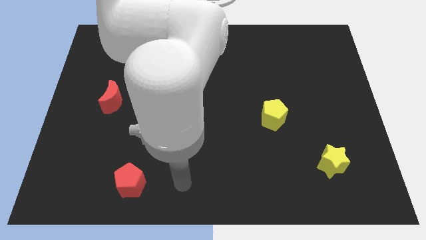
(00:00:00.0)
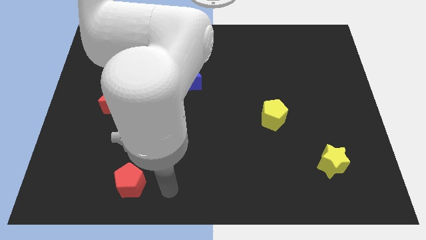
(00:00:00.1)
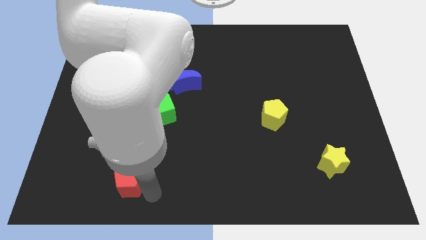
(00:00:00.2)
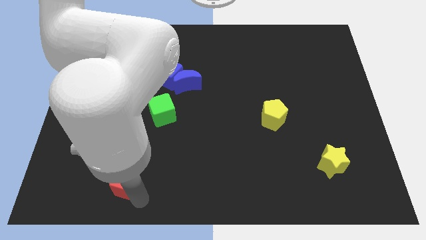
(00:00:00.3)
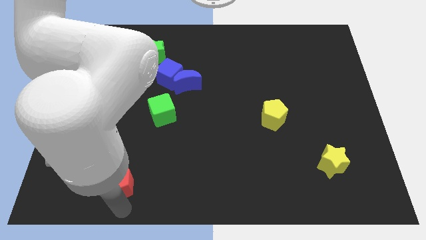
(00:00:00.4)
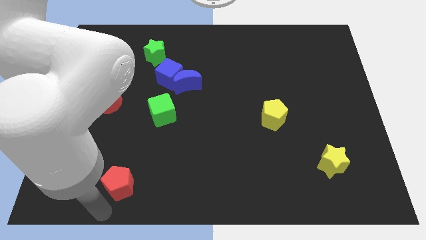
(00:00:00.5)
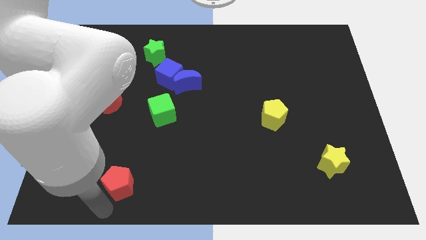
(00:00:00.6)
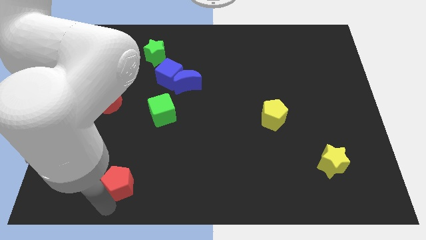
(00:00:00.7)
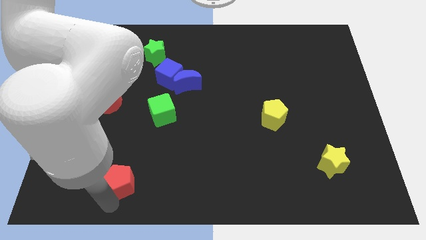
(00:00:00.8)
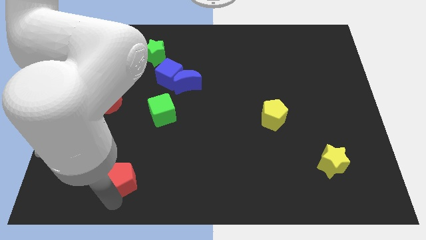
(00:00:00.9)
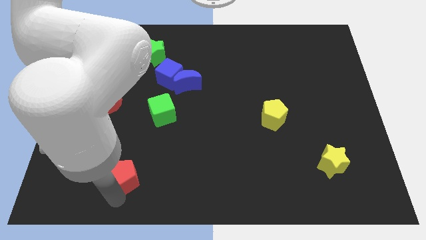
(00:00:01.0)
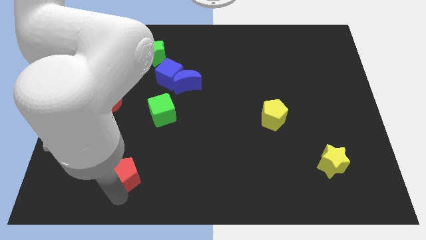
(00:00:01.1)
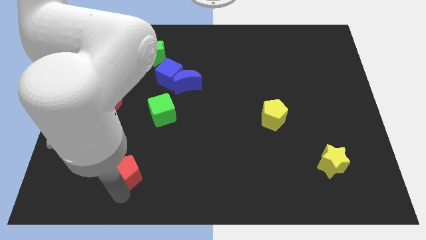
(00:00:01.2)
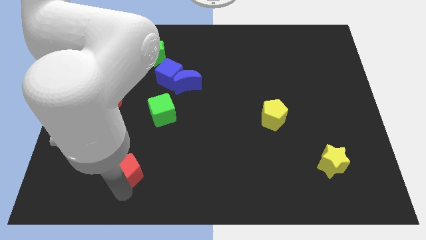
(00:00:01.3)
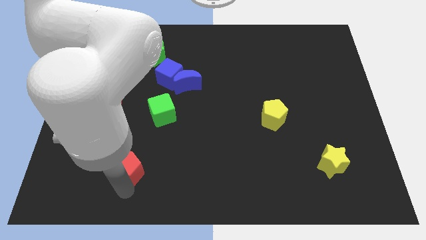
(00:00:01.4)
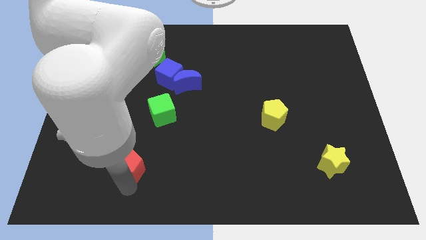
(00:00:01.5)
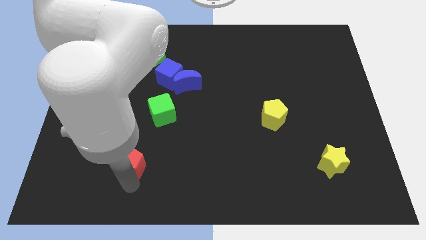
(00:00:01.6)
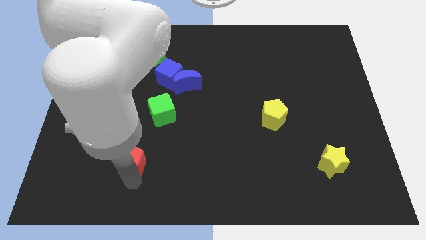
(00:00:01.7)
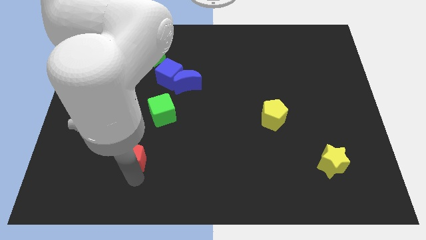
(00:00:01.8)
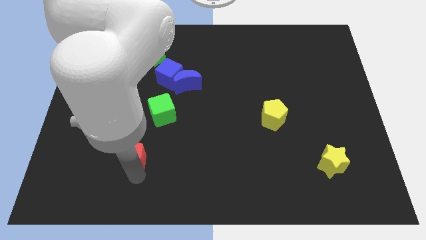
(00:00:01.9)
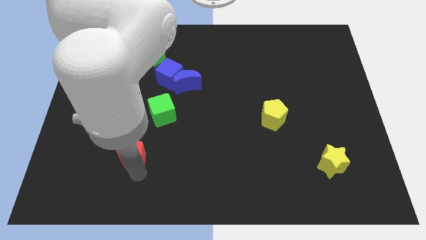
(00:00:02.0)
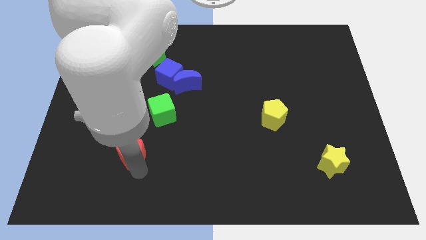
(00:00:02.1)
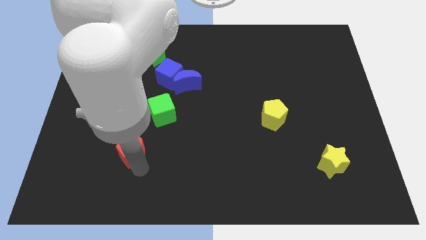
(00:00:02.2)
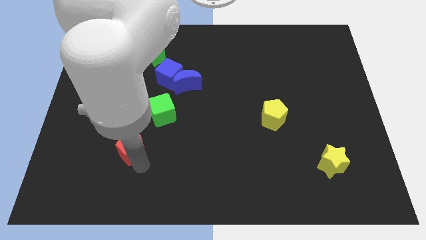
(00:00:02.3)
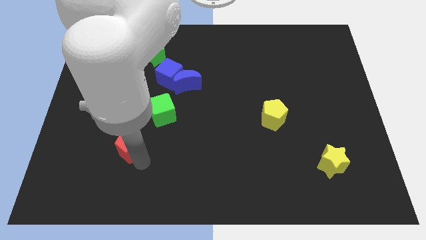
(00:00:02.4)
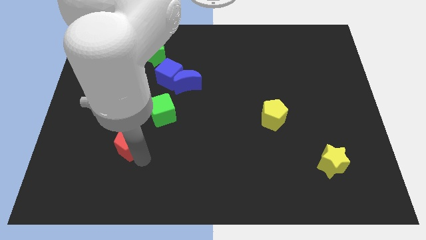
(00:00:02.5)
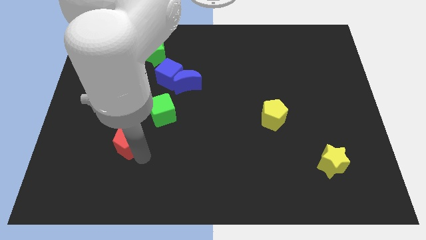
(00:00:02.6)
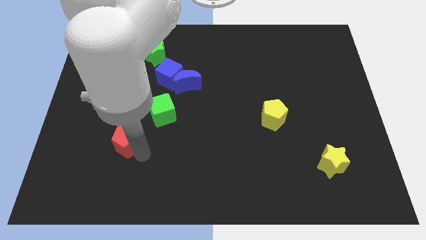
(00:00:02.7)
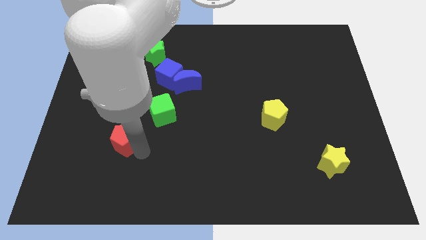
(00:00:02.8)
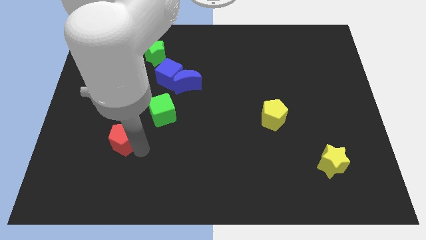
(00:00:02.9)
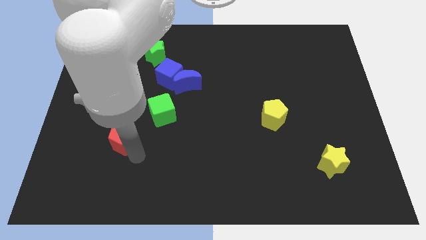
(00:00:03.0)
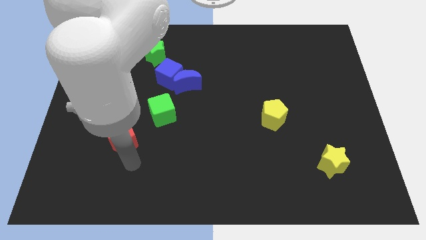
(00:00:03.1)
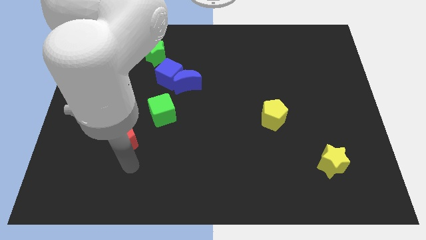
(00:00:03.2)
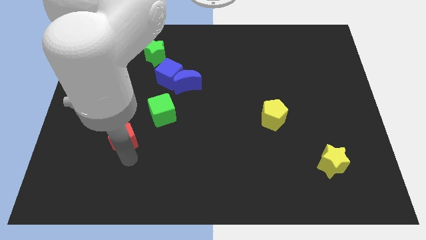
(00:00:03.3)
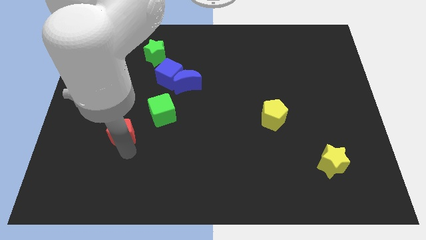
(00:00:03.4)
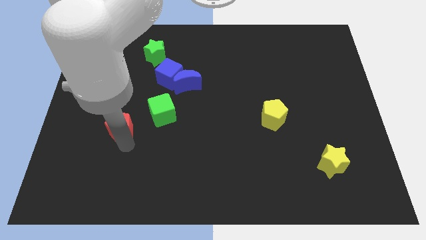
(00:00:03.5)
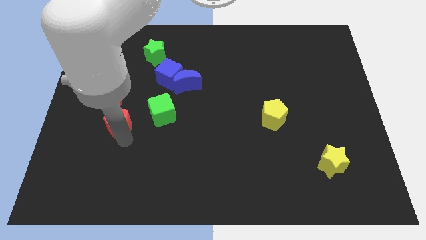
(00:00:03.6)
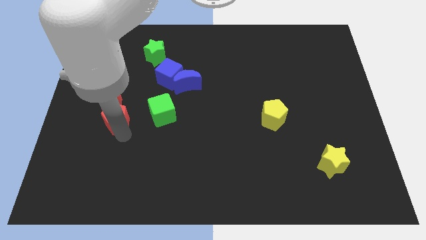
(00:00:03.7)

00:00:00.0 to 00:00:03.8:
slide the red pentagon close to the red moon

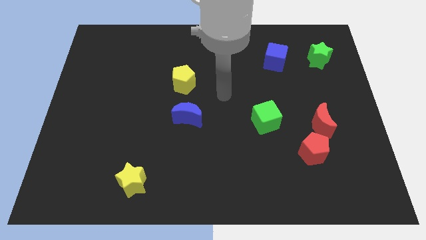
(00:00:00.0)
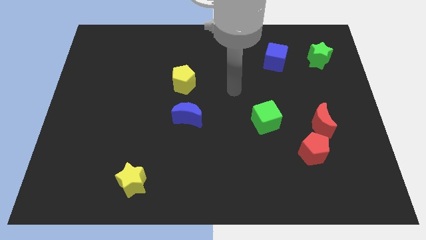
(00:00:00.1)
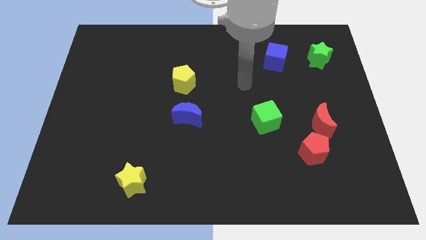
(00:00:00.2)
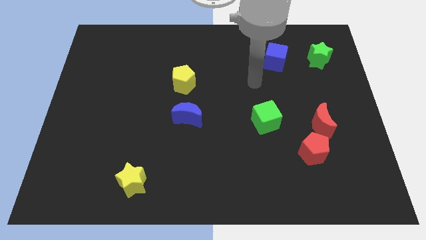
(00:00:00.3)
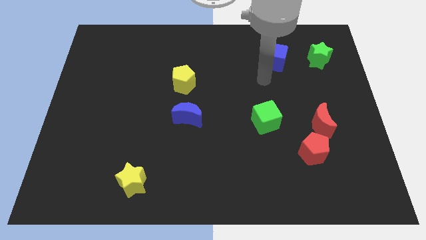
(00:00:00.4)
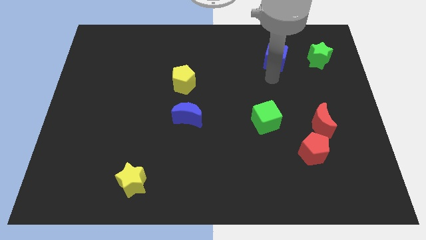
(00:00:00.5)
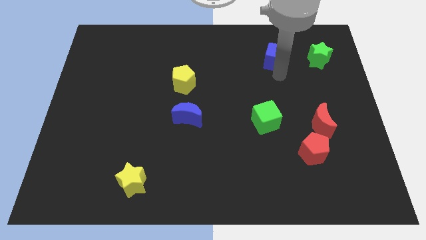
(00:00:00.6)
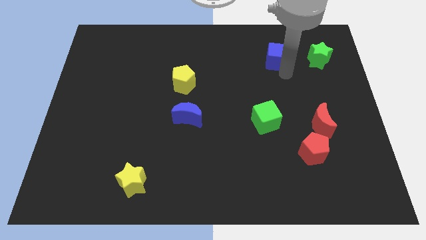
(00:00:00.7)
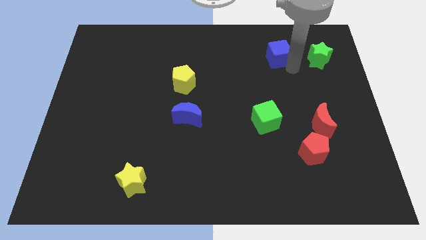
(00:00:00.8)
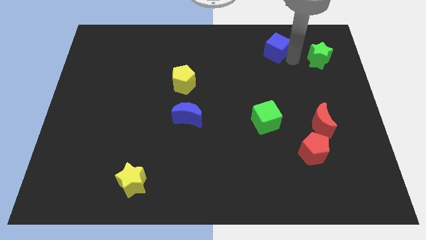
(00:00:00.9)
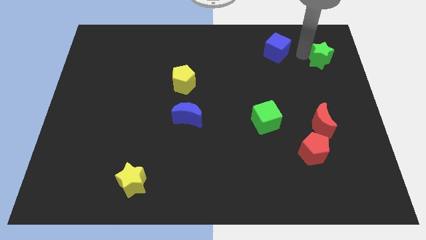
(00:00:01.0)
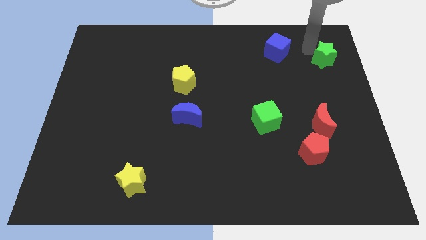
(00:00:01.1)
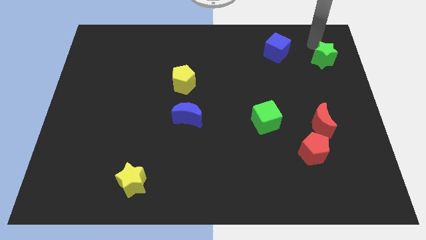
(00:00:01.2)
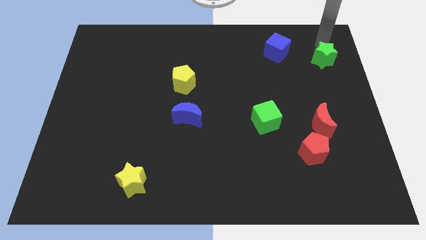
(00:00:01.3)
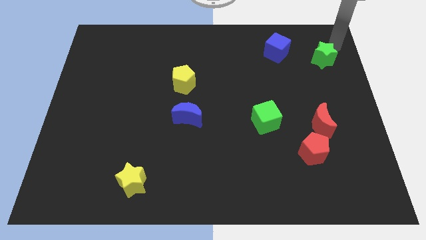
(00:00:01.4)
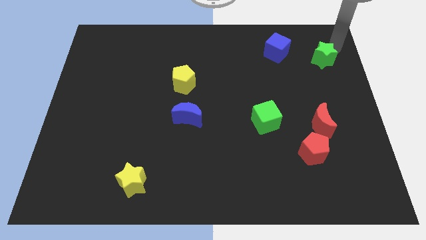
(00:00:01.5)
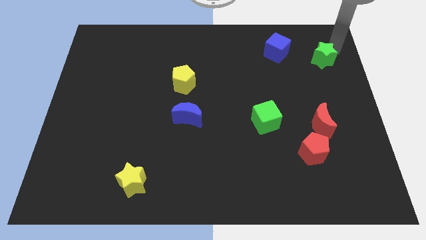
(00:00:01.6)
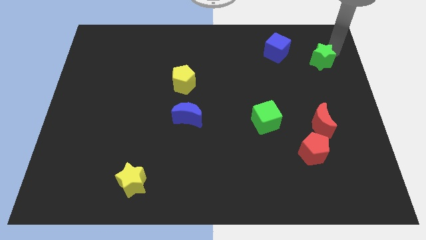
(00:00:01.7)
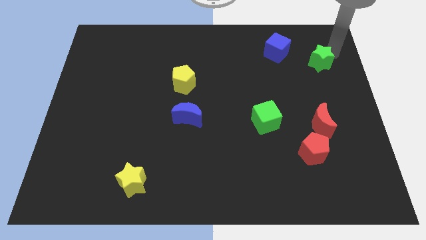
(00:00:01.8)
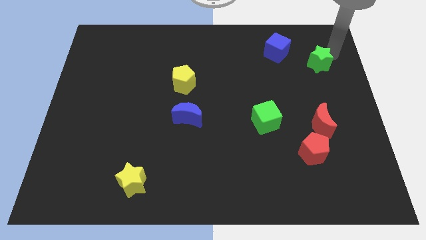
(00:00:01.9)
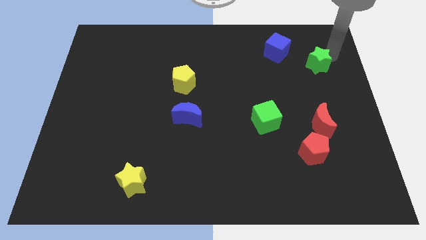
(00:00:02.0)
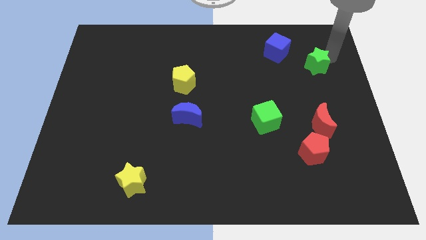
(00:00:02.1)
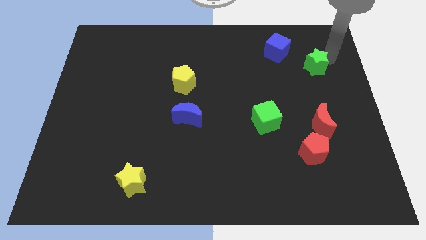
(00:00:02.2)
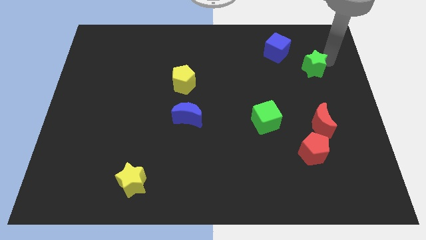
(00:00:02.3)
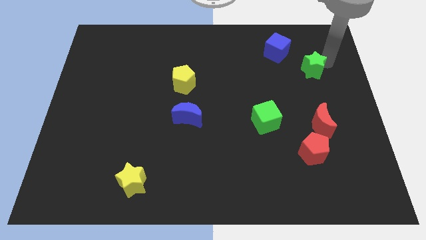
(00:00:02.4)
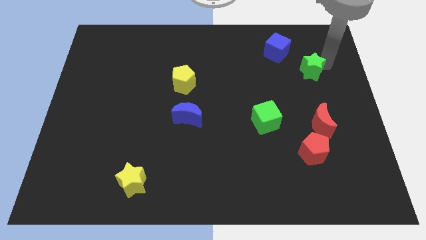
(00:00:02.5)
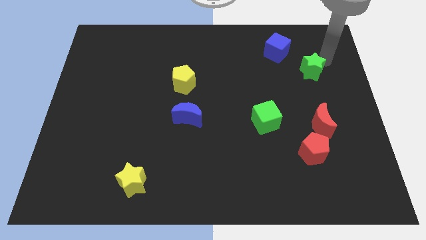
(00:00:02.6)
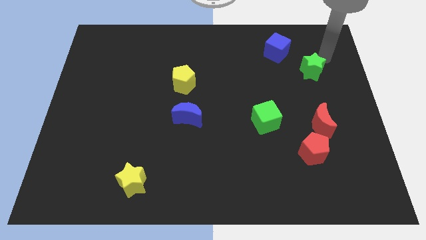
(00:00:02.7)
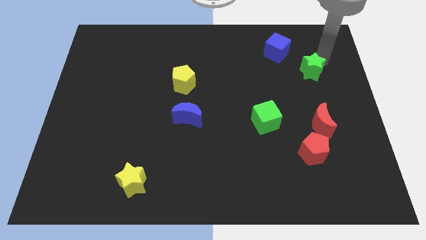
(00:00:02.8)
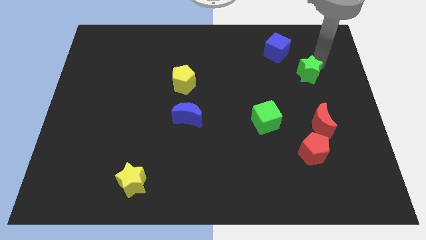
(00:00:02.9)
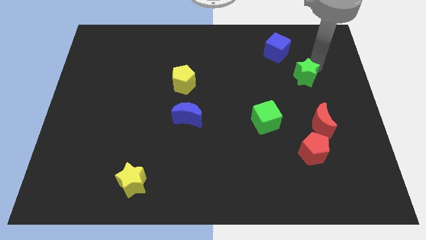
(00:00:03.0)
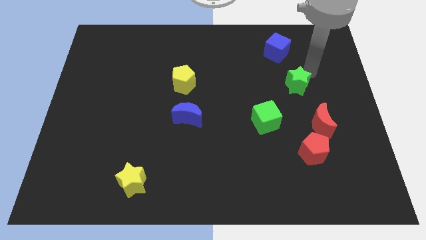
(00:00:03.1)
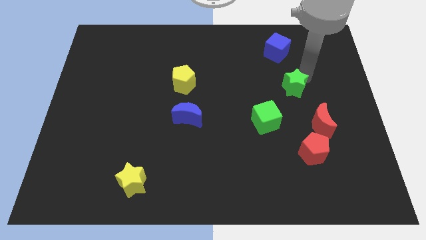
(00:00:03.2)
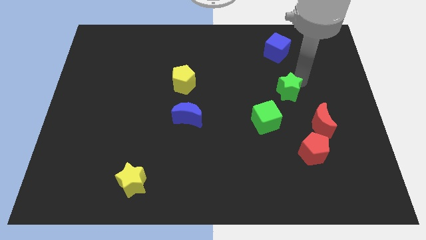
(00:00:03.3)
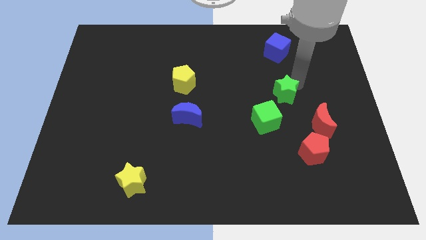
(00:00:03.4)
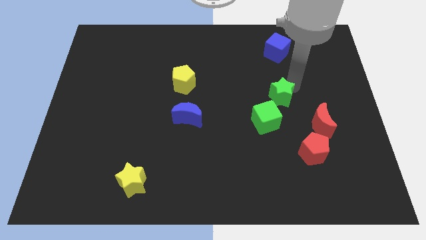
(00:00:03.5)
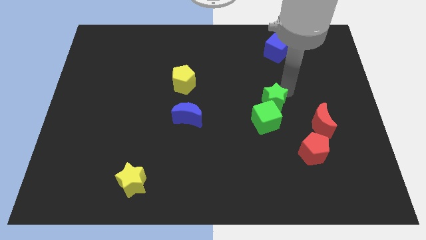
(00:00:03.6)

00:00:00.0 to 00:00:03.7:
move the green star next to the green cube

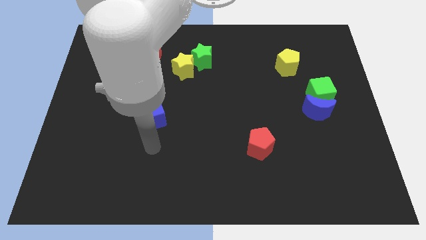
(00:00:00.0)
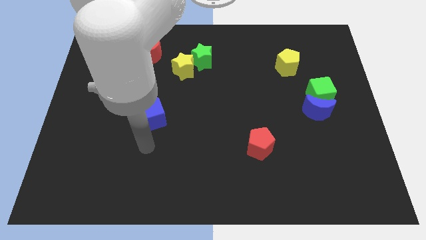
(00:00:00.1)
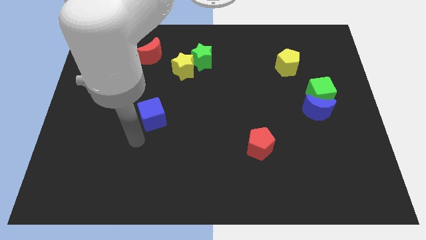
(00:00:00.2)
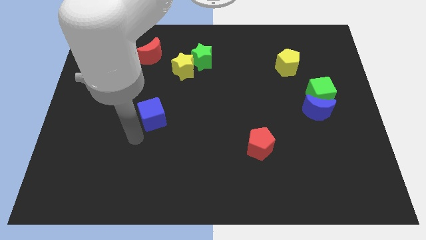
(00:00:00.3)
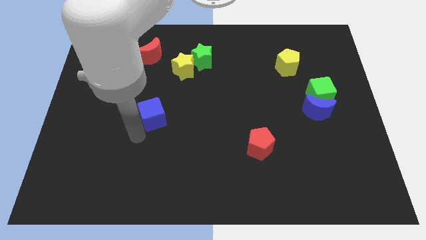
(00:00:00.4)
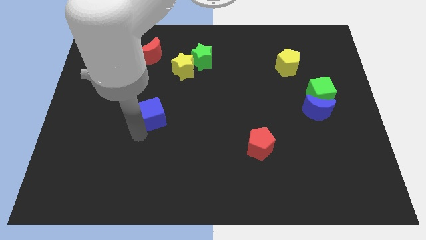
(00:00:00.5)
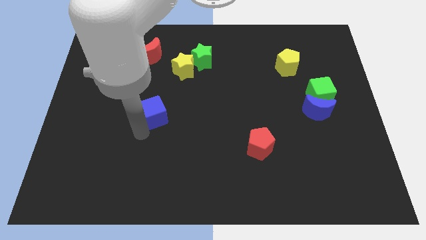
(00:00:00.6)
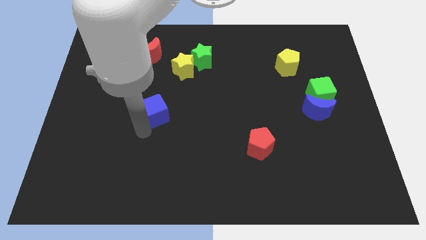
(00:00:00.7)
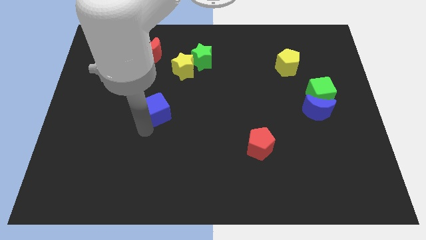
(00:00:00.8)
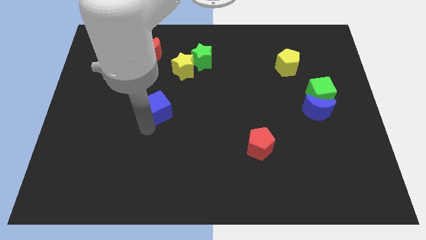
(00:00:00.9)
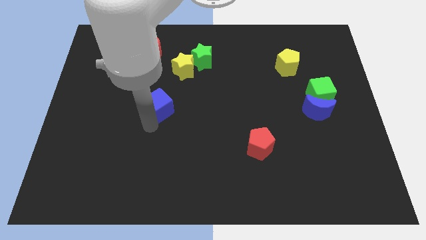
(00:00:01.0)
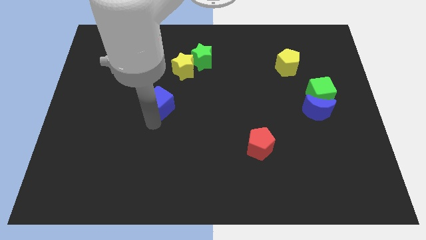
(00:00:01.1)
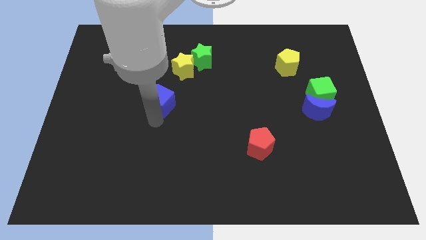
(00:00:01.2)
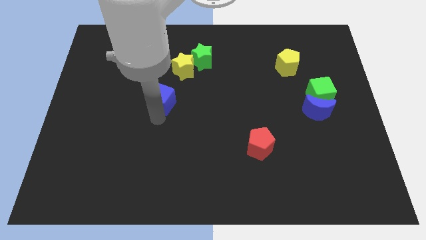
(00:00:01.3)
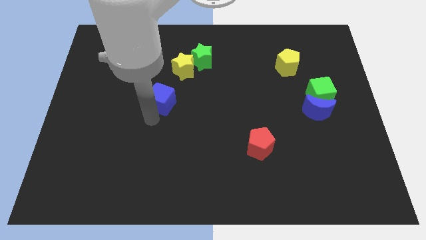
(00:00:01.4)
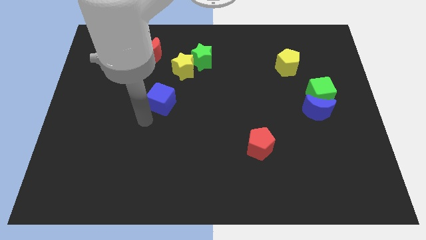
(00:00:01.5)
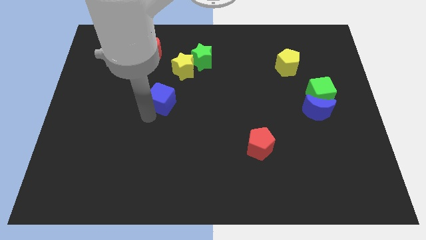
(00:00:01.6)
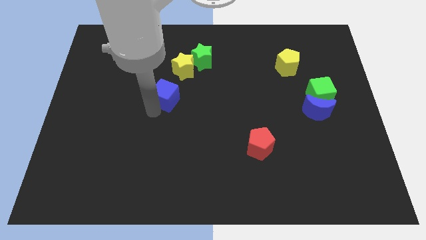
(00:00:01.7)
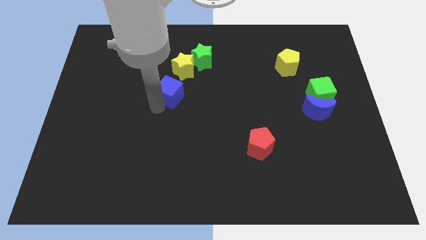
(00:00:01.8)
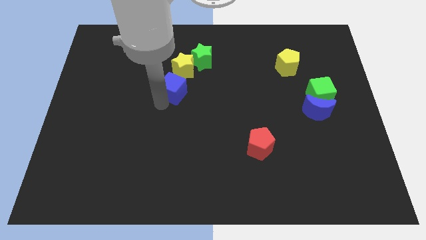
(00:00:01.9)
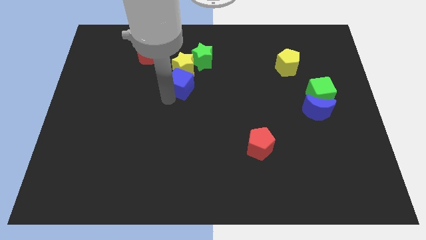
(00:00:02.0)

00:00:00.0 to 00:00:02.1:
push the blue cube close to the yellow star
